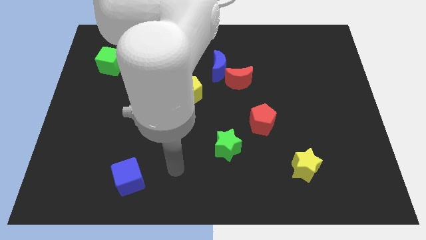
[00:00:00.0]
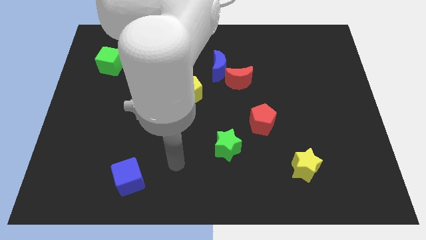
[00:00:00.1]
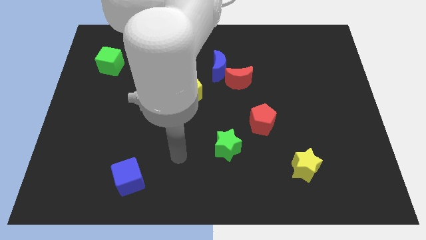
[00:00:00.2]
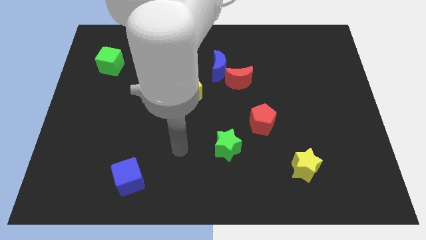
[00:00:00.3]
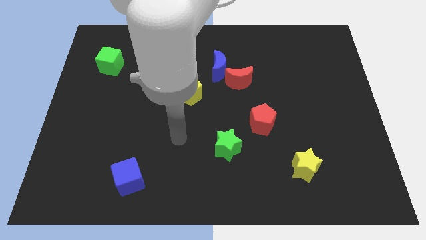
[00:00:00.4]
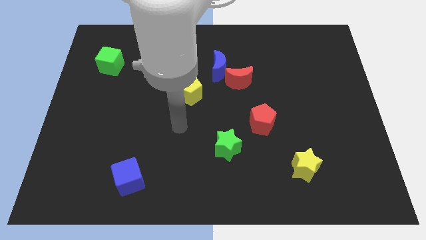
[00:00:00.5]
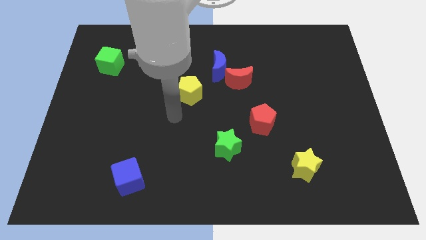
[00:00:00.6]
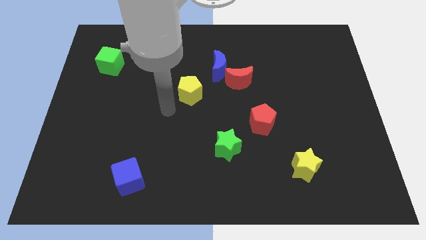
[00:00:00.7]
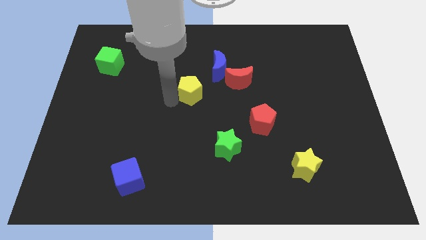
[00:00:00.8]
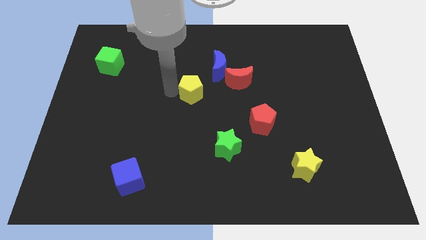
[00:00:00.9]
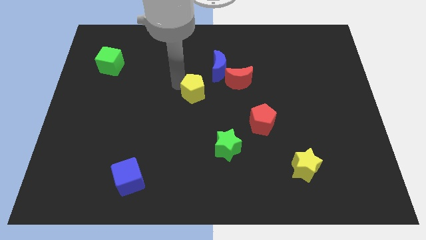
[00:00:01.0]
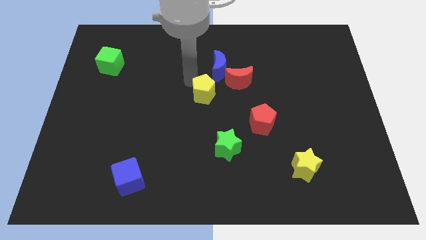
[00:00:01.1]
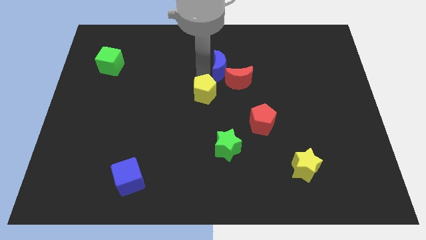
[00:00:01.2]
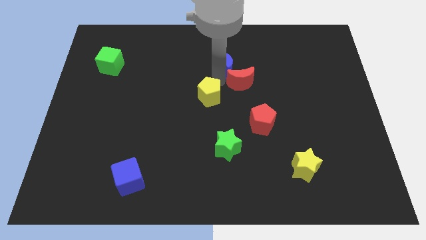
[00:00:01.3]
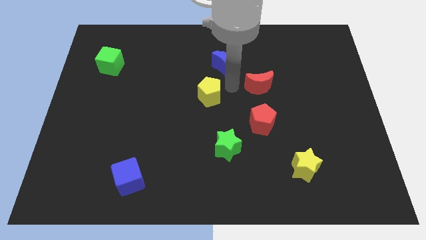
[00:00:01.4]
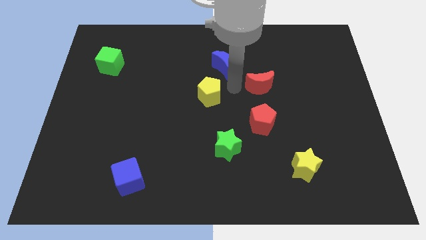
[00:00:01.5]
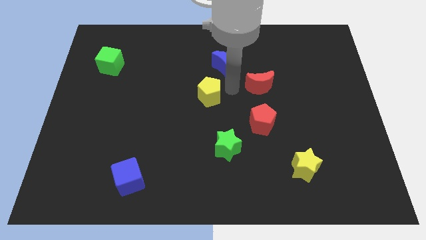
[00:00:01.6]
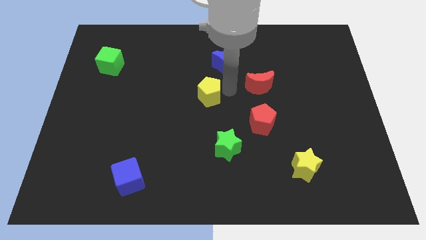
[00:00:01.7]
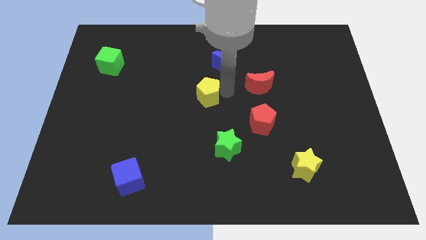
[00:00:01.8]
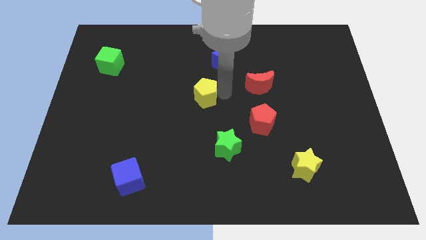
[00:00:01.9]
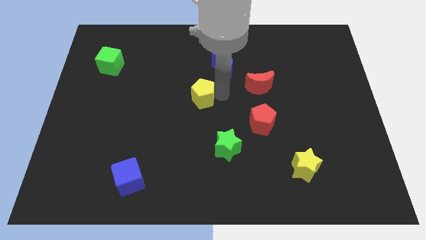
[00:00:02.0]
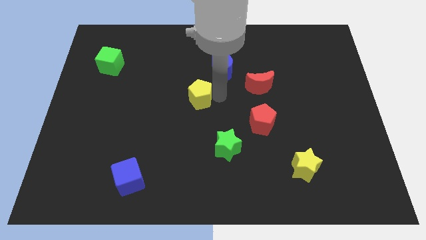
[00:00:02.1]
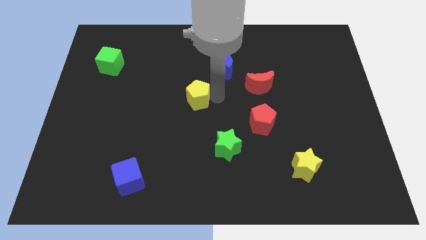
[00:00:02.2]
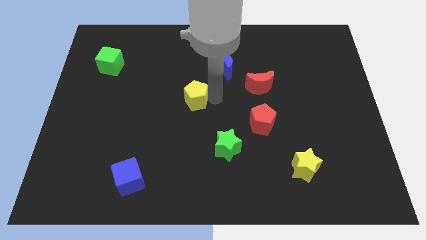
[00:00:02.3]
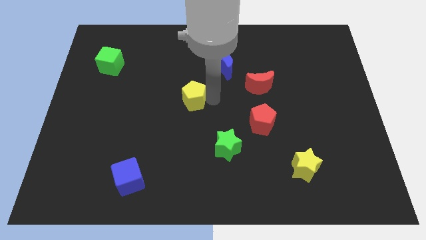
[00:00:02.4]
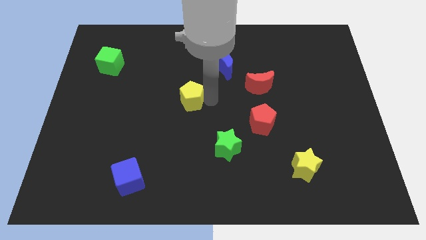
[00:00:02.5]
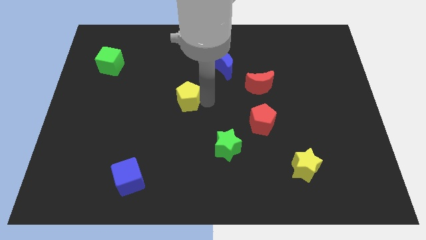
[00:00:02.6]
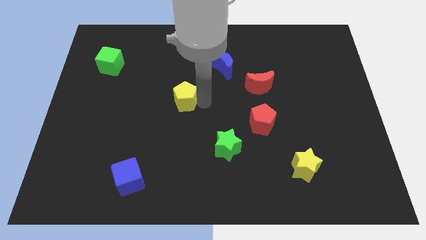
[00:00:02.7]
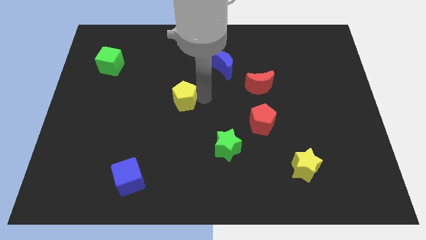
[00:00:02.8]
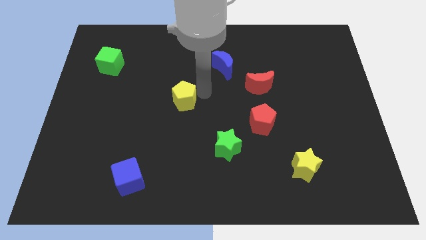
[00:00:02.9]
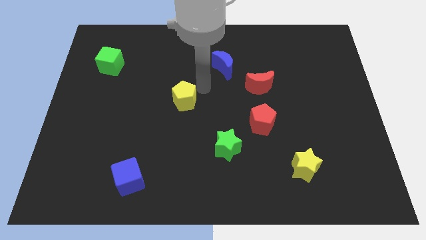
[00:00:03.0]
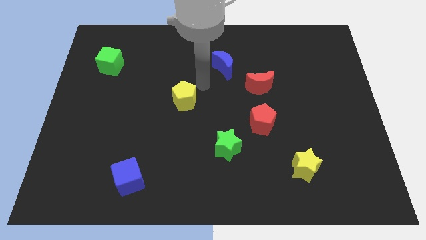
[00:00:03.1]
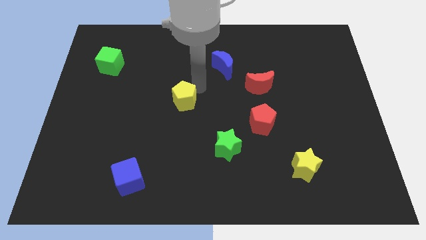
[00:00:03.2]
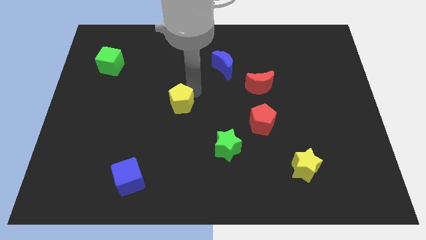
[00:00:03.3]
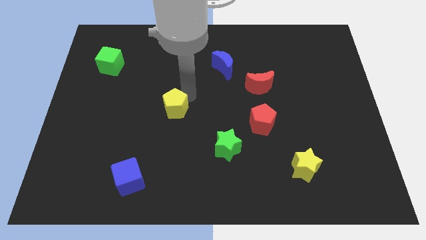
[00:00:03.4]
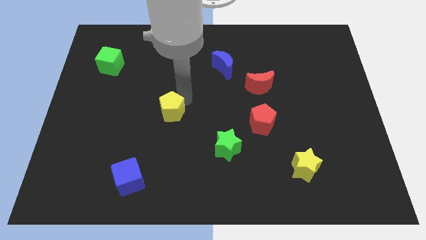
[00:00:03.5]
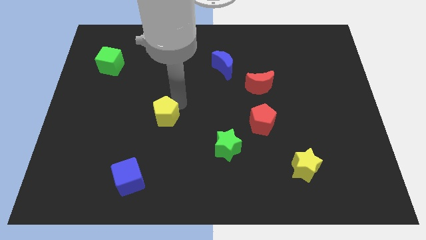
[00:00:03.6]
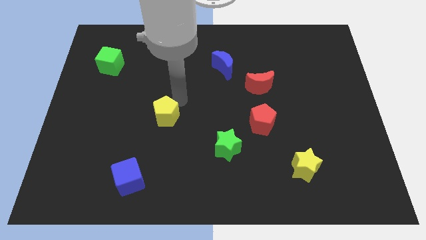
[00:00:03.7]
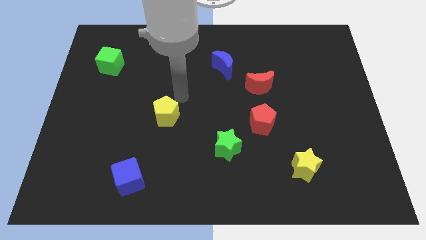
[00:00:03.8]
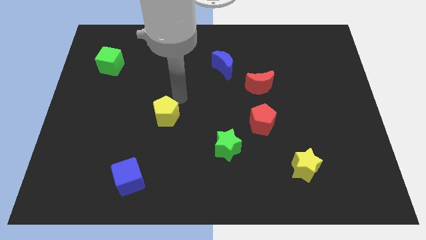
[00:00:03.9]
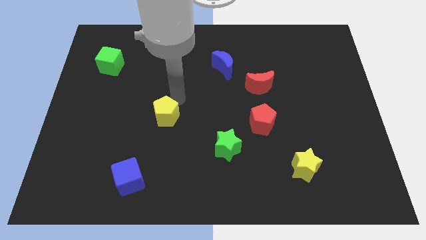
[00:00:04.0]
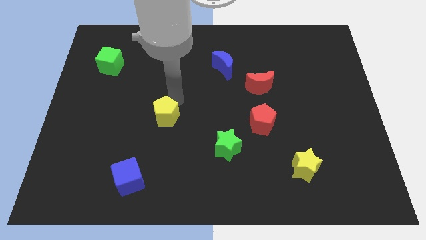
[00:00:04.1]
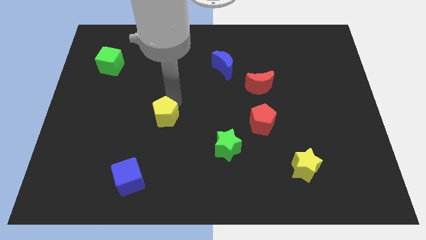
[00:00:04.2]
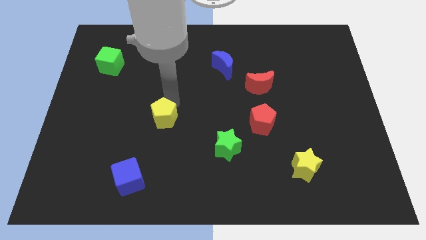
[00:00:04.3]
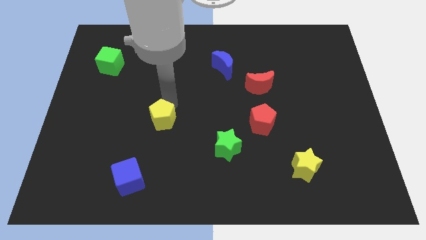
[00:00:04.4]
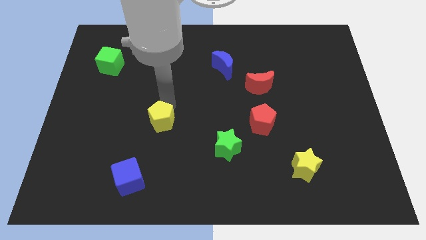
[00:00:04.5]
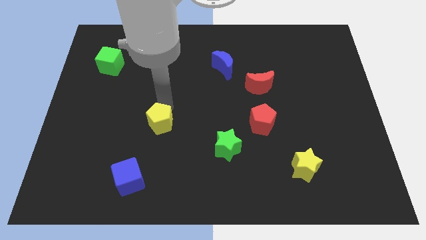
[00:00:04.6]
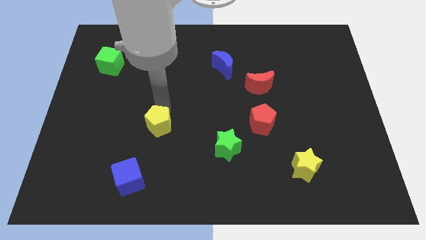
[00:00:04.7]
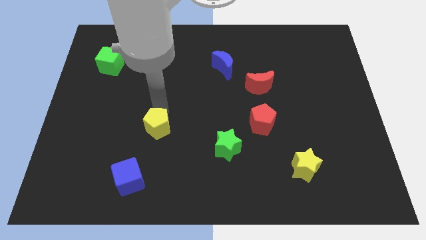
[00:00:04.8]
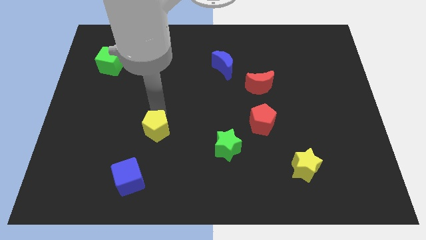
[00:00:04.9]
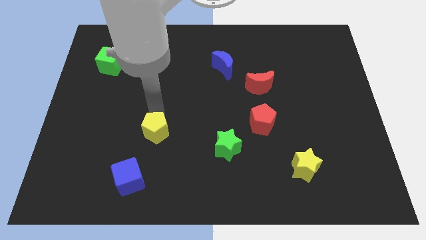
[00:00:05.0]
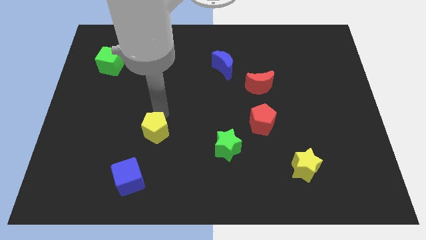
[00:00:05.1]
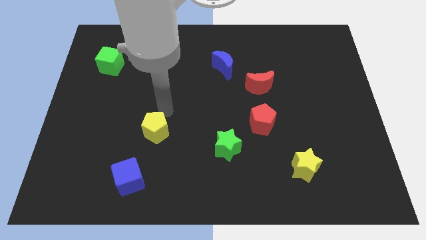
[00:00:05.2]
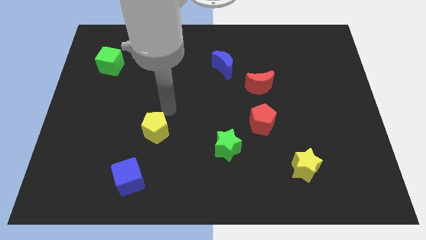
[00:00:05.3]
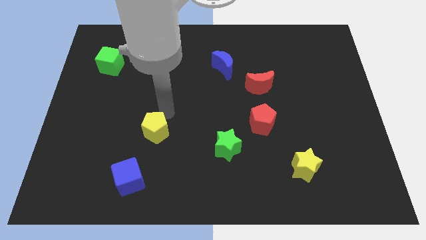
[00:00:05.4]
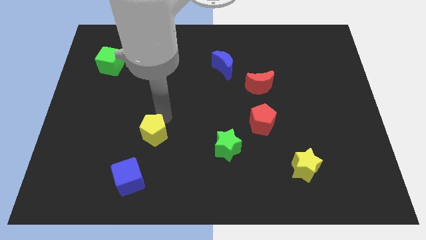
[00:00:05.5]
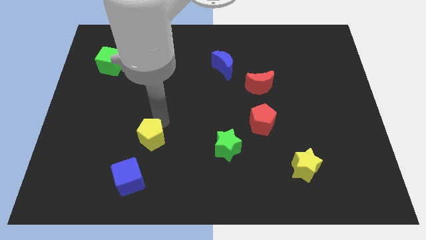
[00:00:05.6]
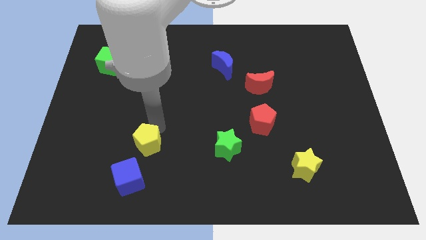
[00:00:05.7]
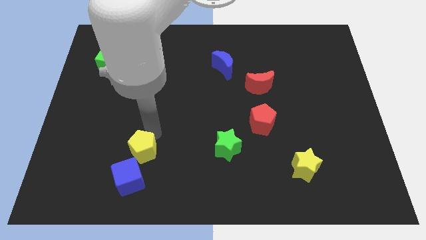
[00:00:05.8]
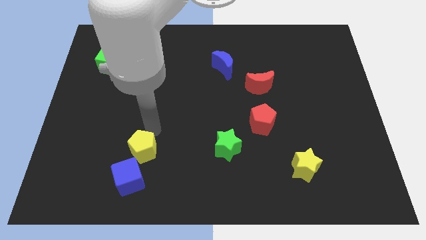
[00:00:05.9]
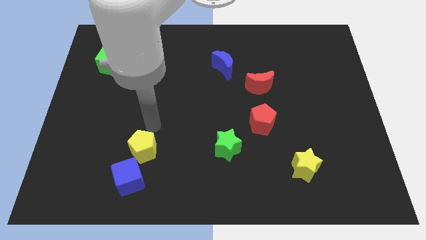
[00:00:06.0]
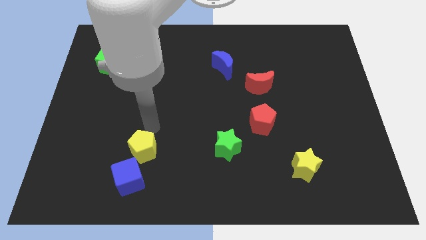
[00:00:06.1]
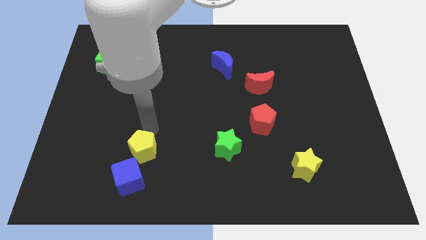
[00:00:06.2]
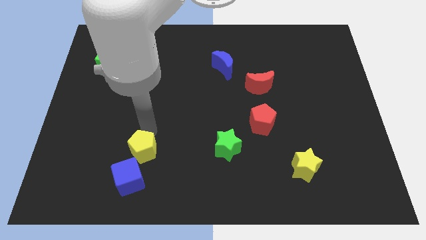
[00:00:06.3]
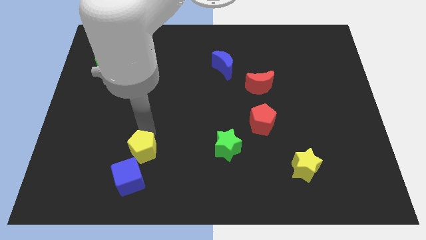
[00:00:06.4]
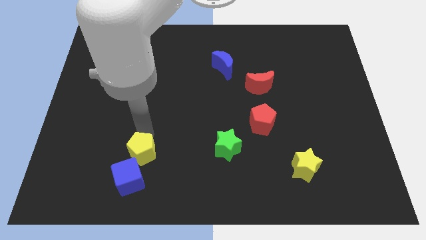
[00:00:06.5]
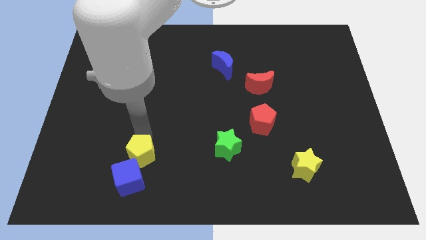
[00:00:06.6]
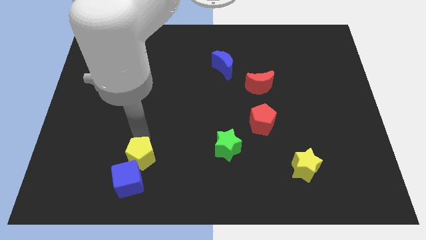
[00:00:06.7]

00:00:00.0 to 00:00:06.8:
push the yellow pentagon towards the blue cube

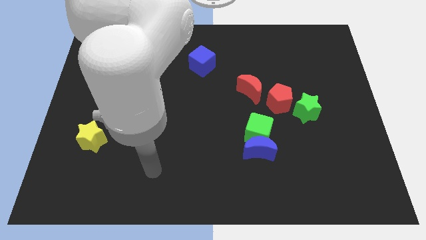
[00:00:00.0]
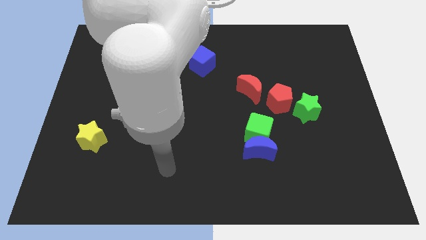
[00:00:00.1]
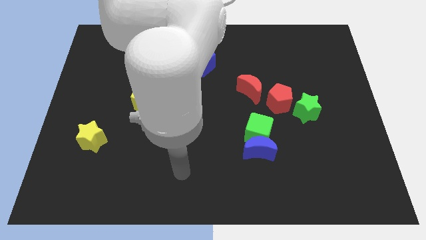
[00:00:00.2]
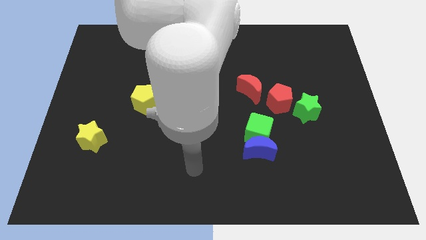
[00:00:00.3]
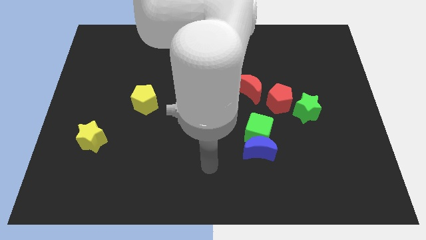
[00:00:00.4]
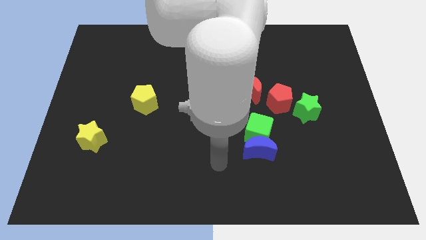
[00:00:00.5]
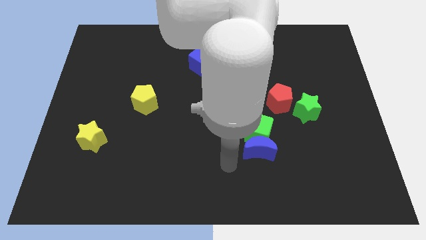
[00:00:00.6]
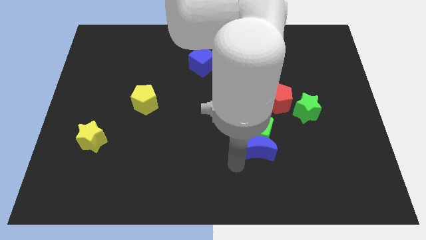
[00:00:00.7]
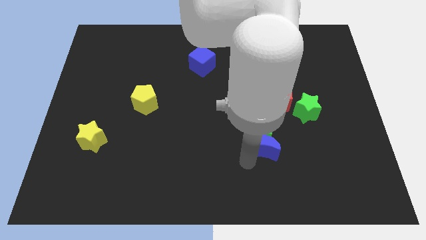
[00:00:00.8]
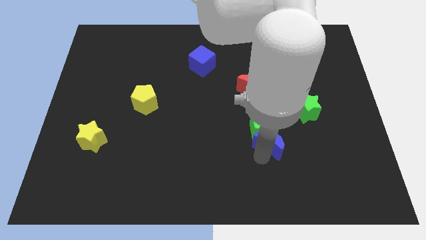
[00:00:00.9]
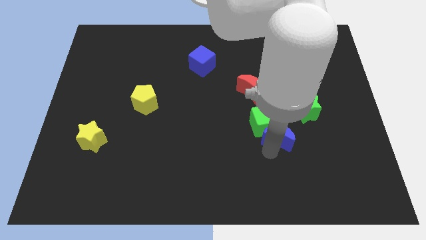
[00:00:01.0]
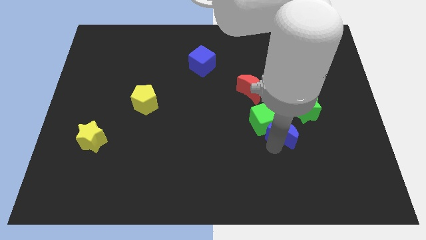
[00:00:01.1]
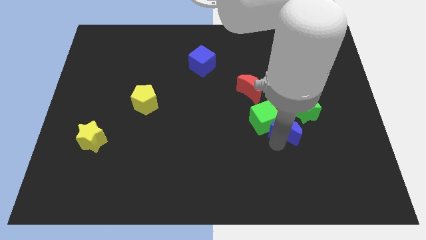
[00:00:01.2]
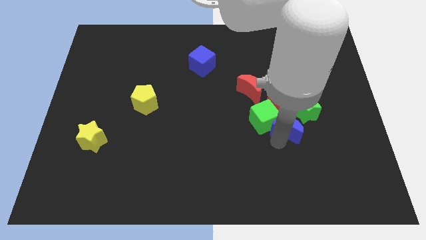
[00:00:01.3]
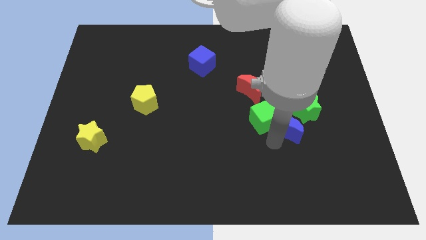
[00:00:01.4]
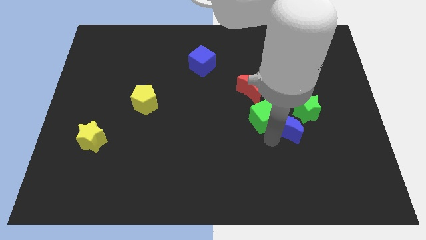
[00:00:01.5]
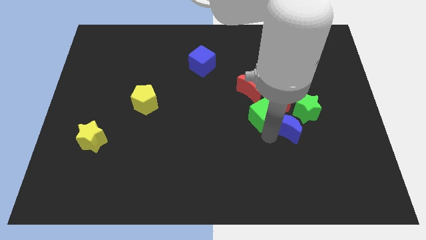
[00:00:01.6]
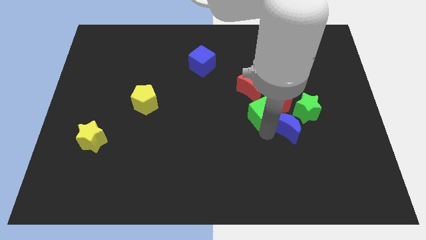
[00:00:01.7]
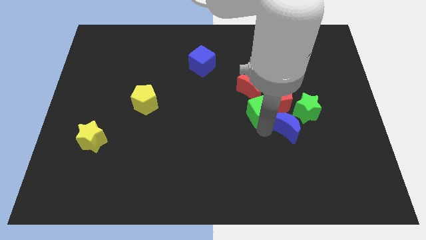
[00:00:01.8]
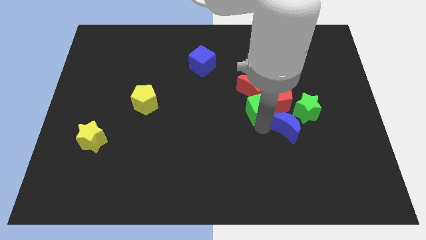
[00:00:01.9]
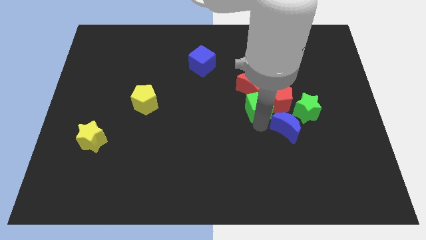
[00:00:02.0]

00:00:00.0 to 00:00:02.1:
move the green cube next to the red moon
